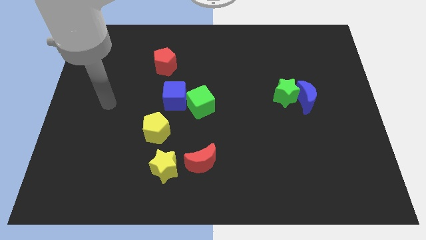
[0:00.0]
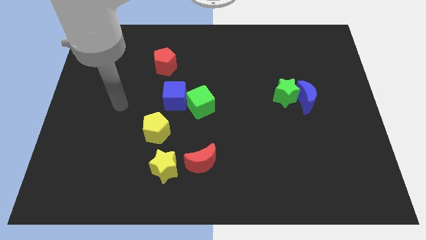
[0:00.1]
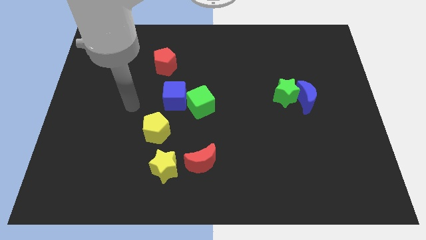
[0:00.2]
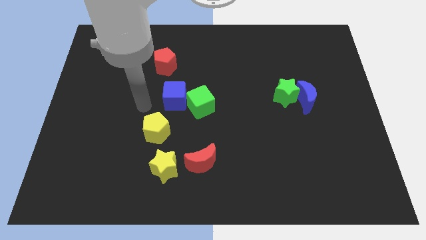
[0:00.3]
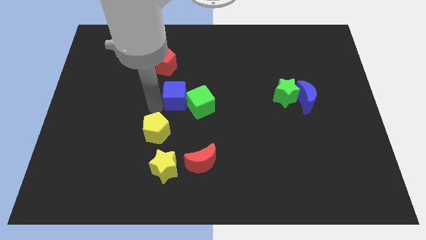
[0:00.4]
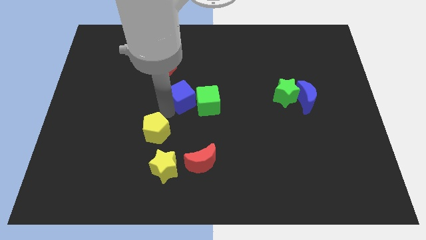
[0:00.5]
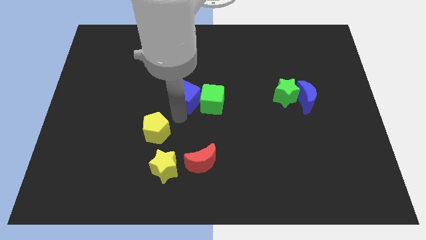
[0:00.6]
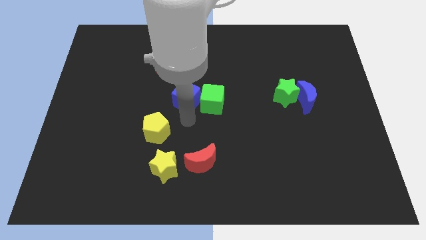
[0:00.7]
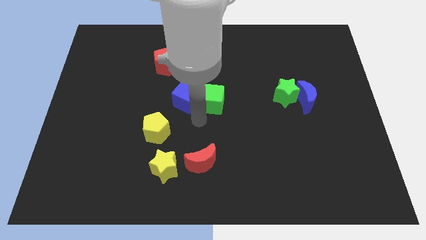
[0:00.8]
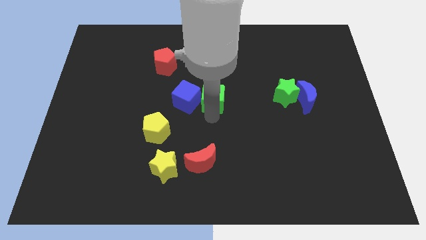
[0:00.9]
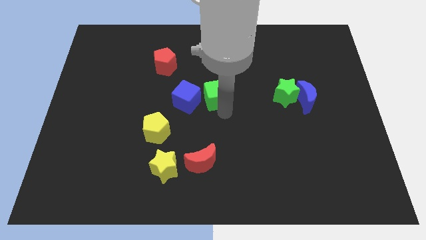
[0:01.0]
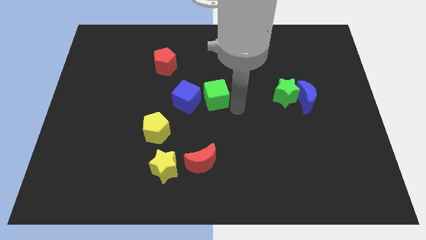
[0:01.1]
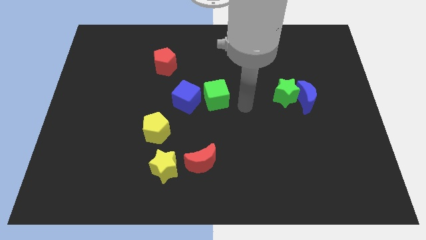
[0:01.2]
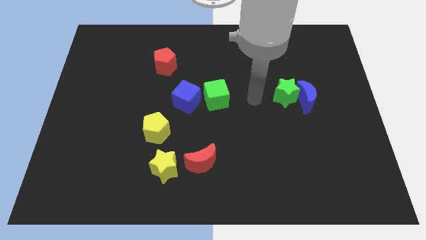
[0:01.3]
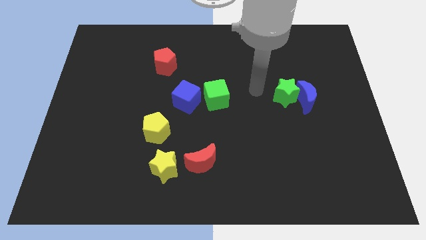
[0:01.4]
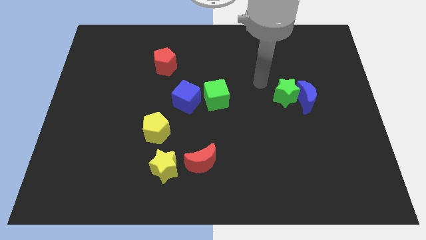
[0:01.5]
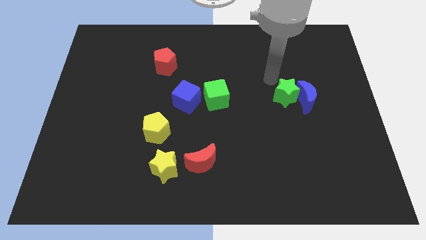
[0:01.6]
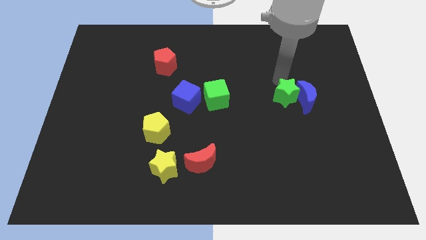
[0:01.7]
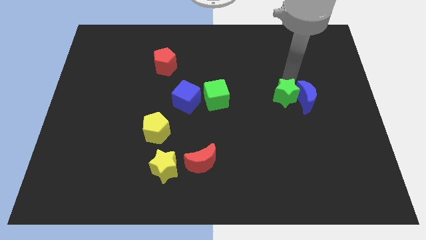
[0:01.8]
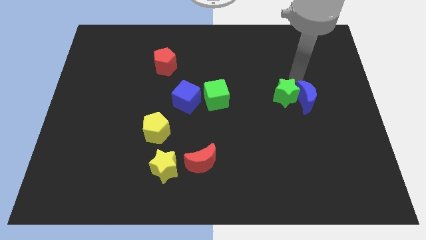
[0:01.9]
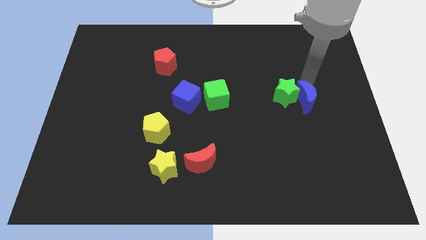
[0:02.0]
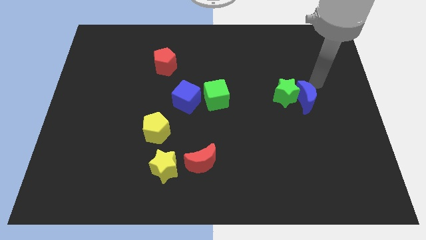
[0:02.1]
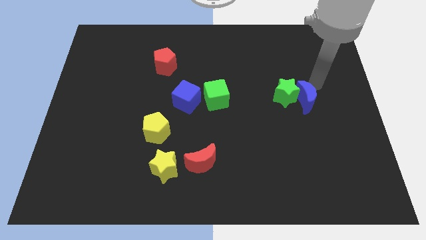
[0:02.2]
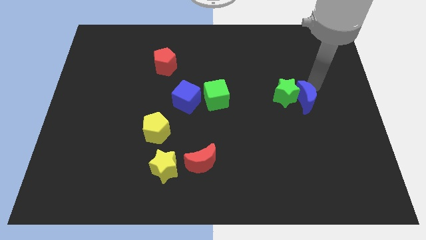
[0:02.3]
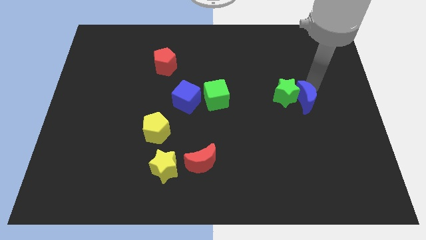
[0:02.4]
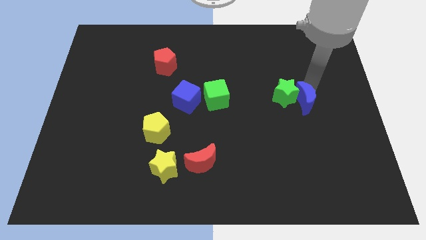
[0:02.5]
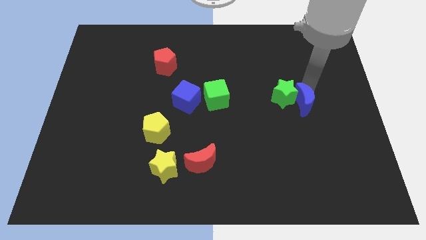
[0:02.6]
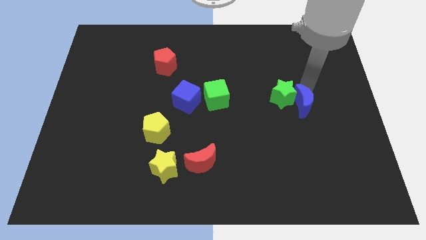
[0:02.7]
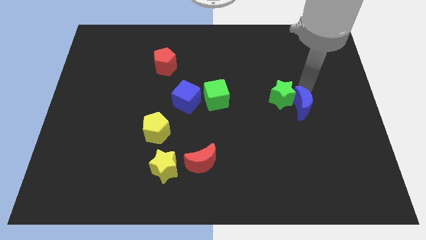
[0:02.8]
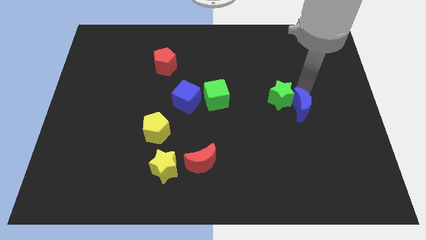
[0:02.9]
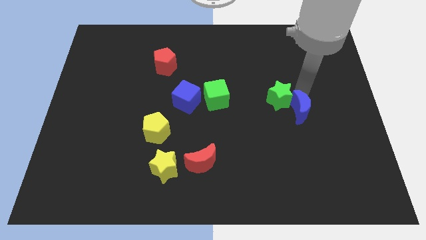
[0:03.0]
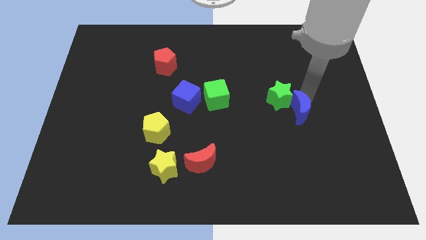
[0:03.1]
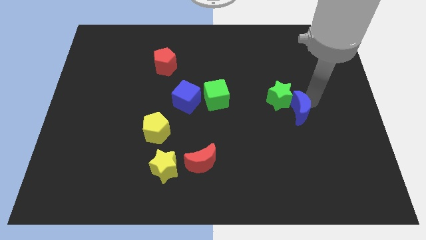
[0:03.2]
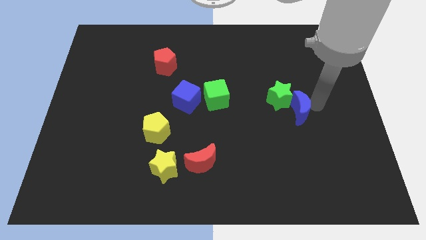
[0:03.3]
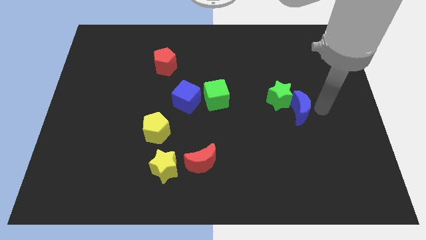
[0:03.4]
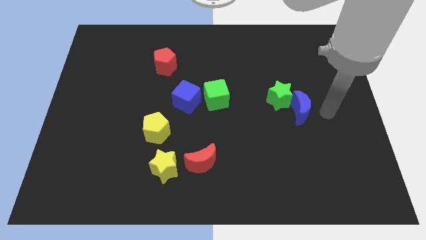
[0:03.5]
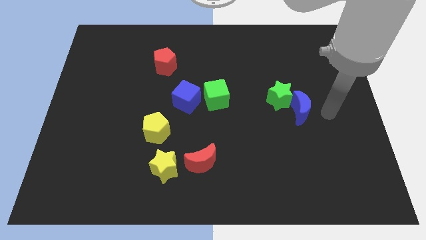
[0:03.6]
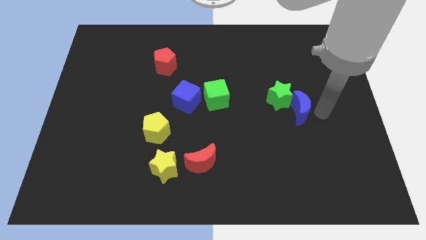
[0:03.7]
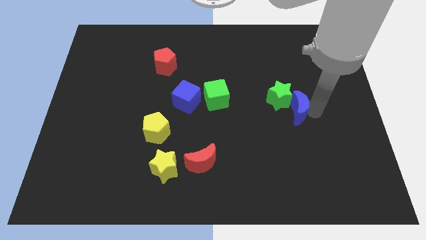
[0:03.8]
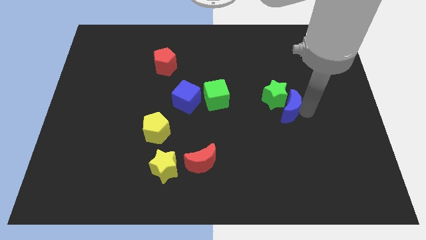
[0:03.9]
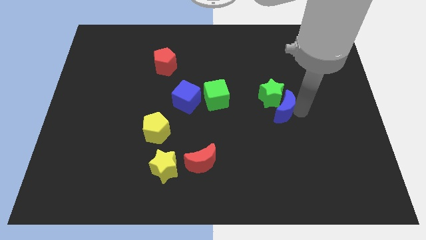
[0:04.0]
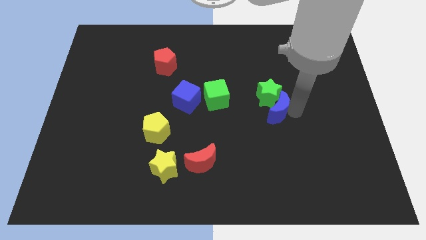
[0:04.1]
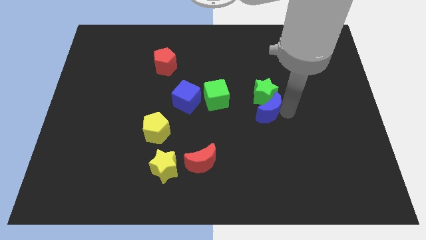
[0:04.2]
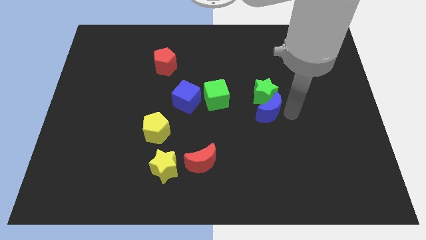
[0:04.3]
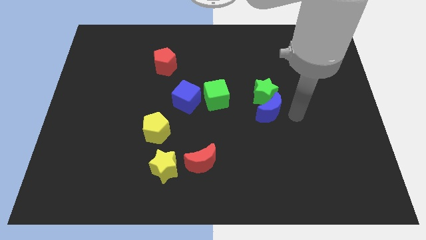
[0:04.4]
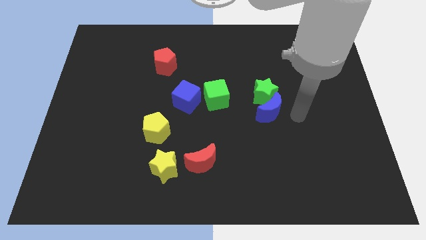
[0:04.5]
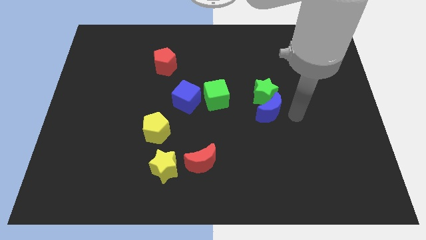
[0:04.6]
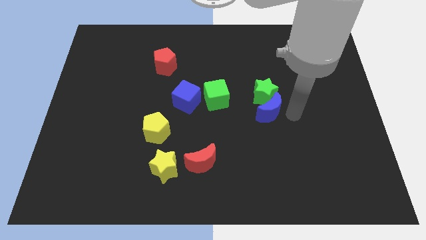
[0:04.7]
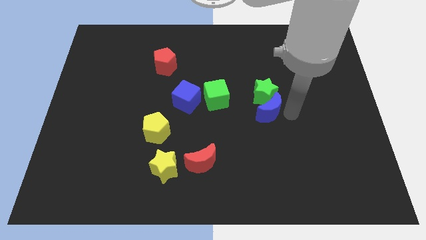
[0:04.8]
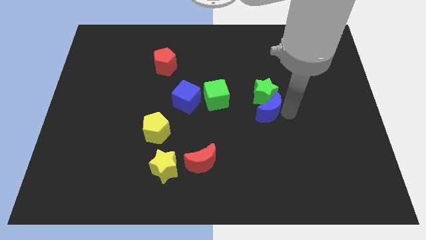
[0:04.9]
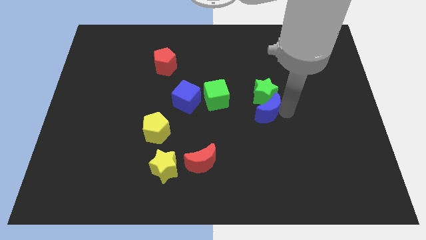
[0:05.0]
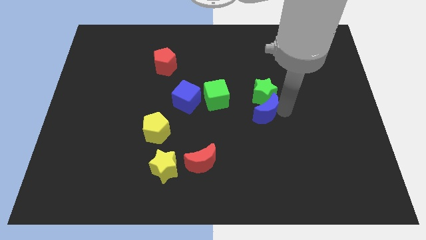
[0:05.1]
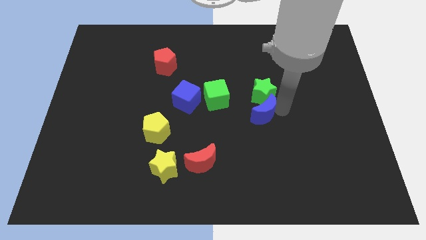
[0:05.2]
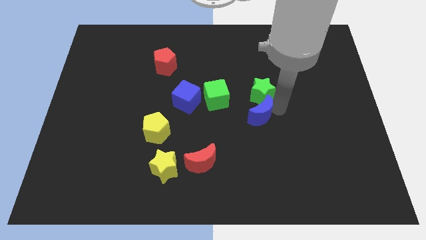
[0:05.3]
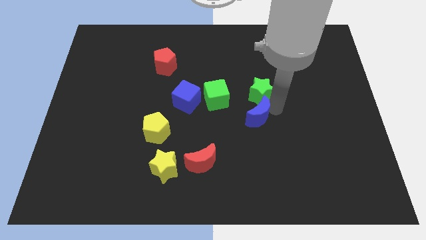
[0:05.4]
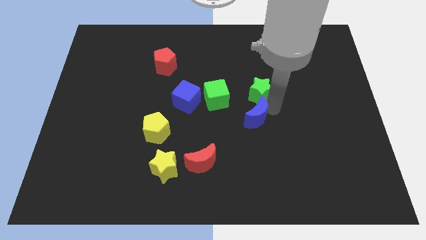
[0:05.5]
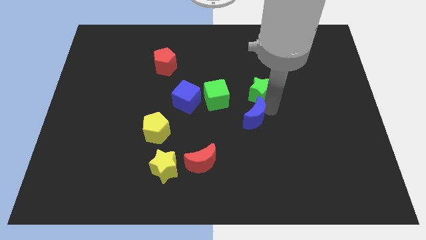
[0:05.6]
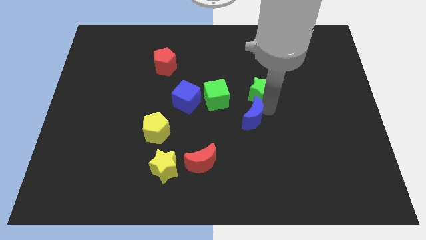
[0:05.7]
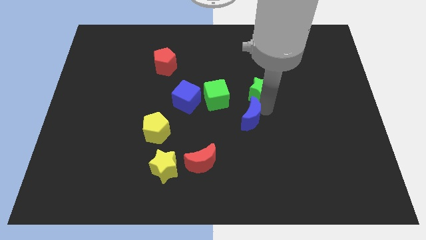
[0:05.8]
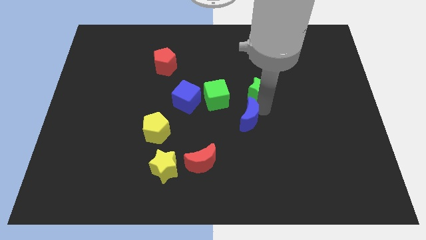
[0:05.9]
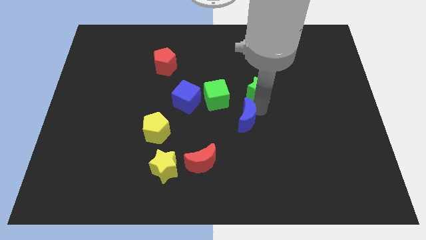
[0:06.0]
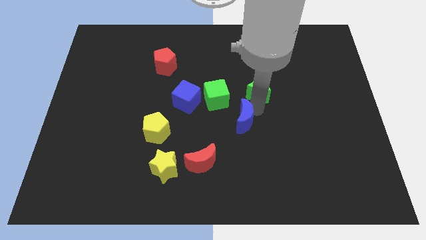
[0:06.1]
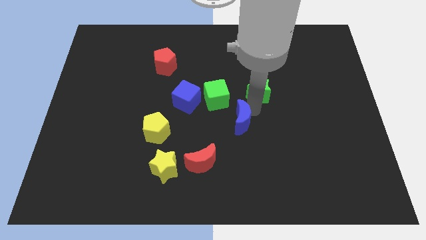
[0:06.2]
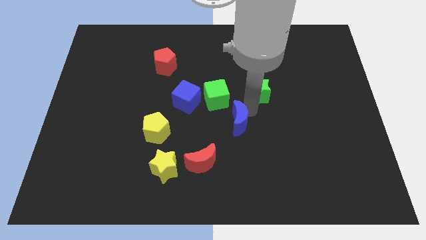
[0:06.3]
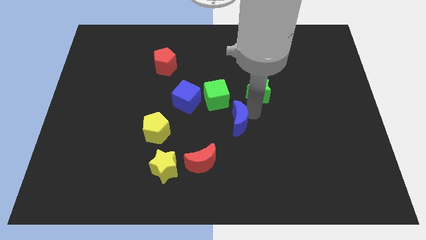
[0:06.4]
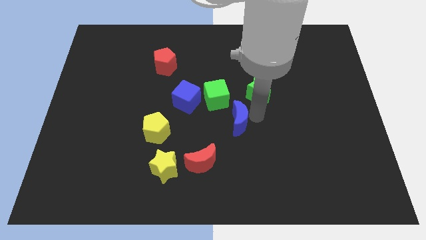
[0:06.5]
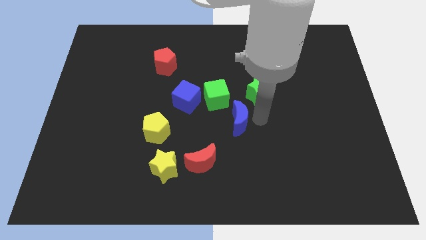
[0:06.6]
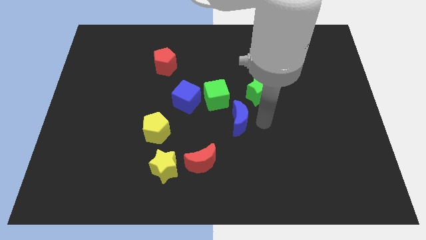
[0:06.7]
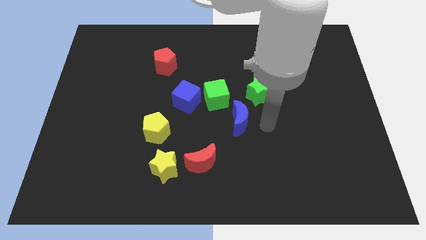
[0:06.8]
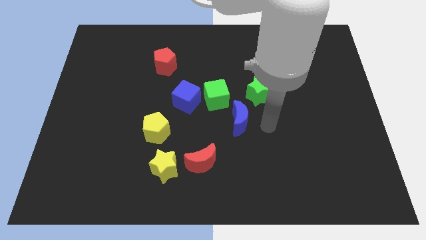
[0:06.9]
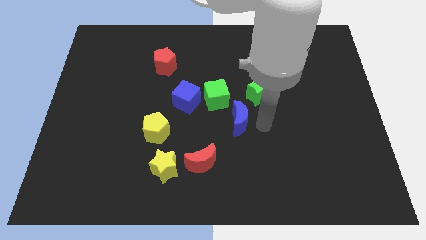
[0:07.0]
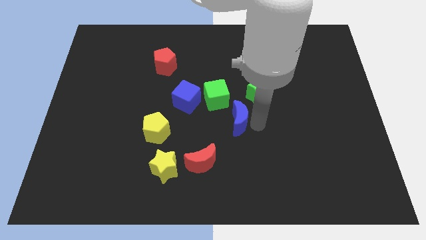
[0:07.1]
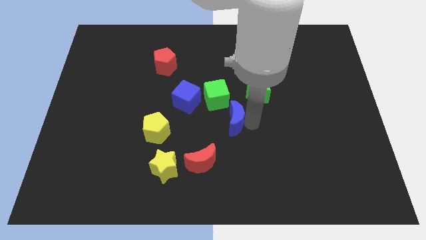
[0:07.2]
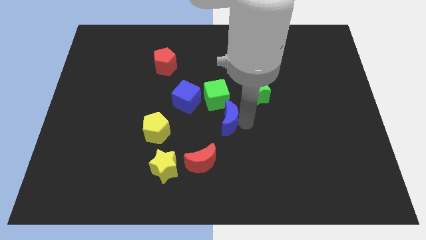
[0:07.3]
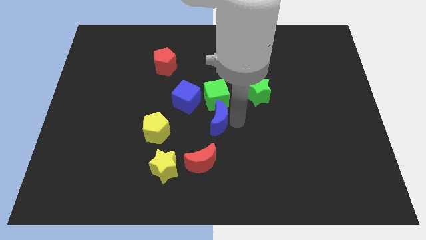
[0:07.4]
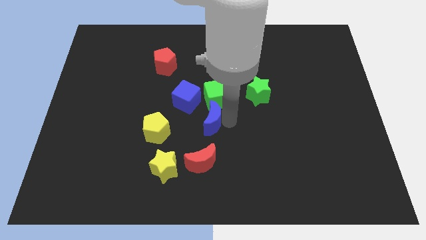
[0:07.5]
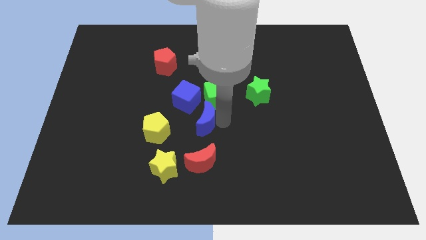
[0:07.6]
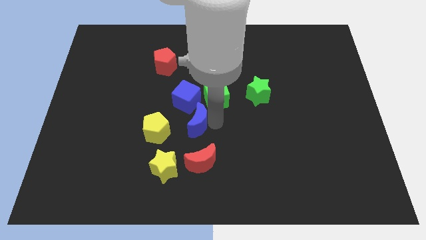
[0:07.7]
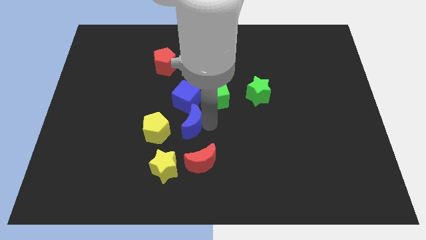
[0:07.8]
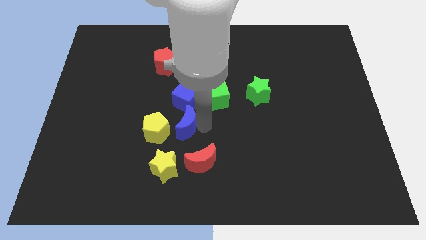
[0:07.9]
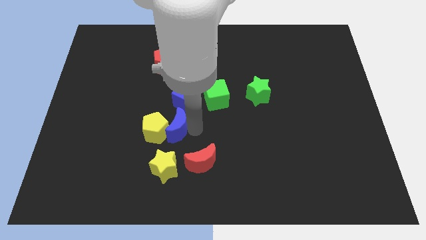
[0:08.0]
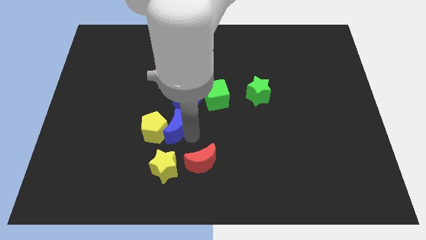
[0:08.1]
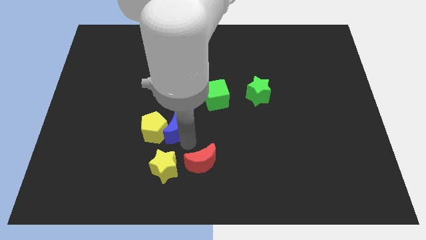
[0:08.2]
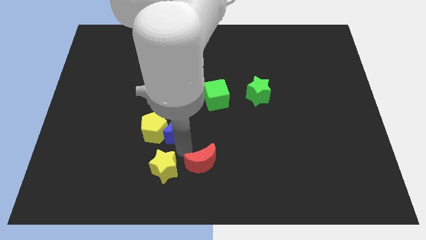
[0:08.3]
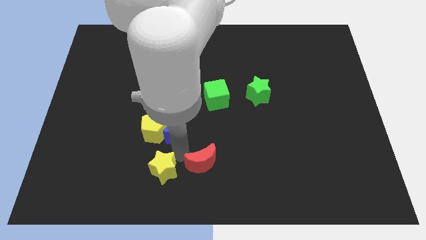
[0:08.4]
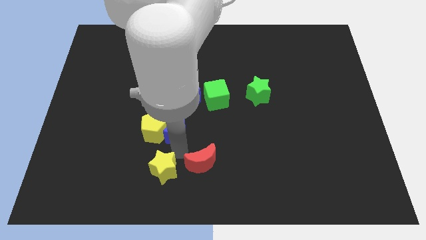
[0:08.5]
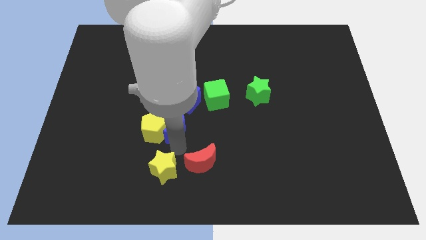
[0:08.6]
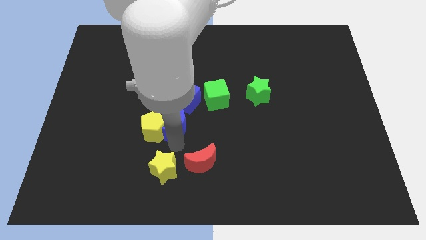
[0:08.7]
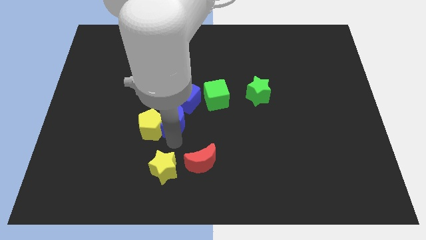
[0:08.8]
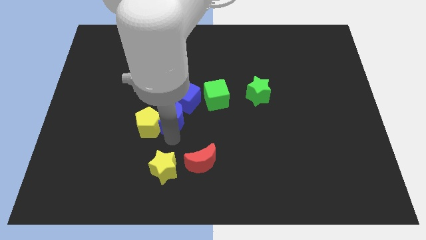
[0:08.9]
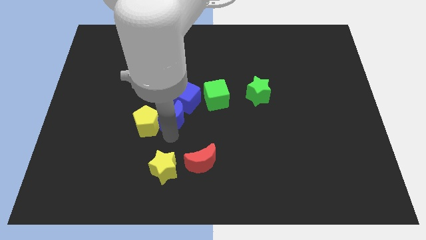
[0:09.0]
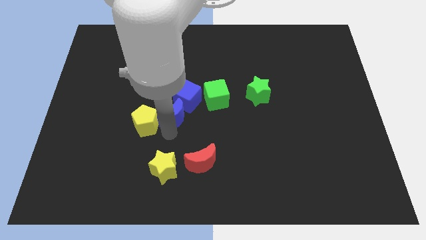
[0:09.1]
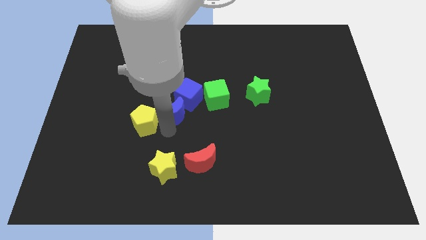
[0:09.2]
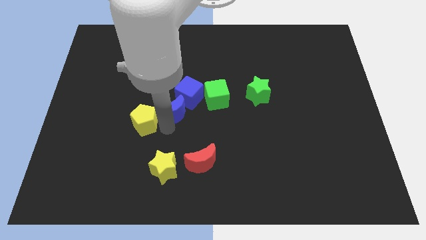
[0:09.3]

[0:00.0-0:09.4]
move the blue moon just left of the green cube
